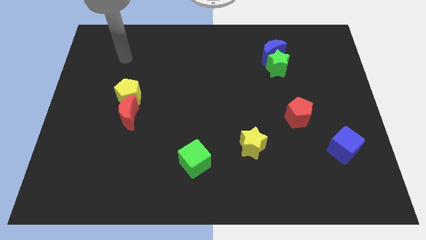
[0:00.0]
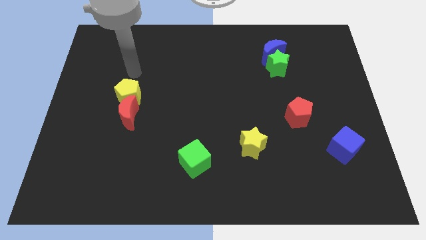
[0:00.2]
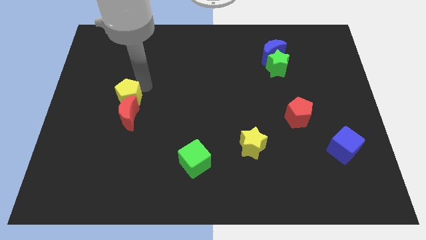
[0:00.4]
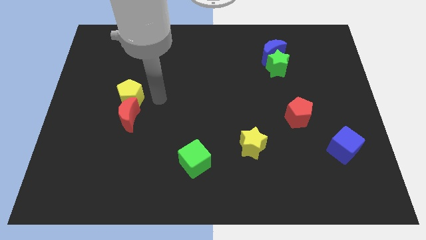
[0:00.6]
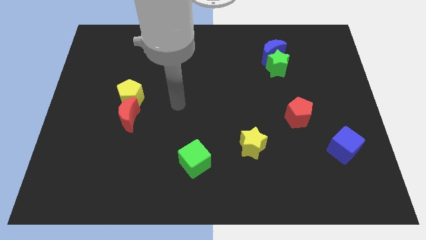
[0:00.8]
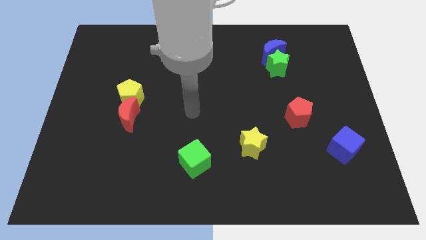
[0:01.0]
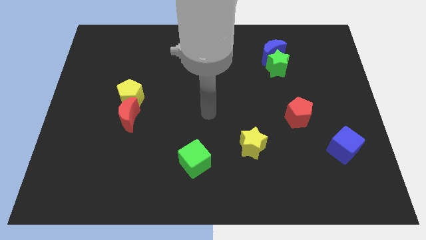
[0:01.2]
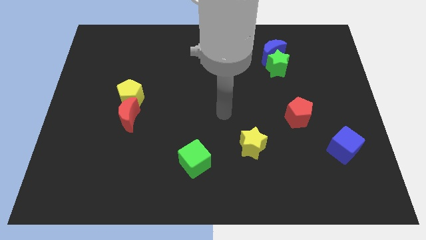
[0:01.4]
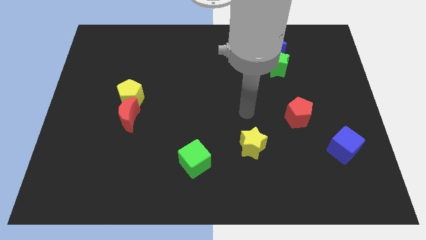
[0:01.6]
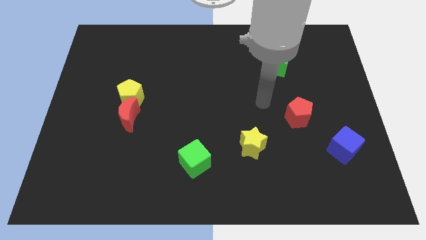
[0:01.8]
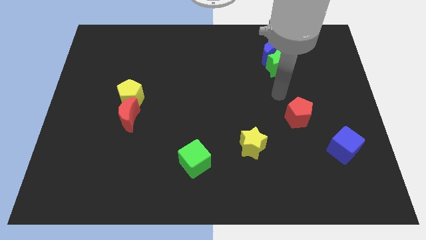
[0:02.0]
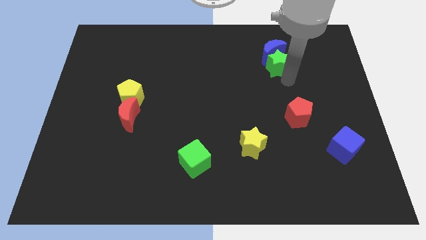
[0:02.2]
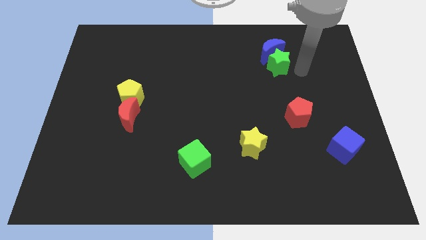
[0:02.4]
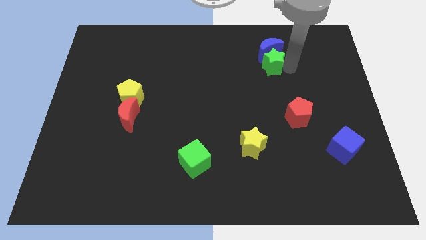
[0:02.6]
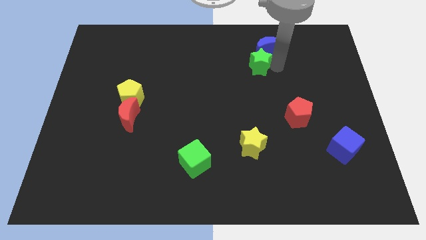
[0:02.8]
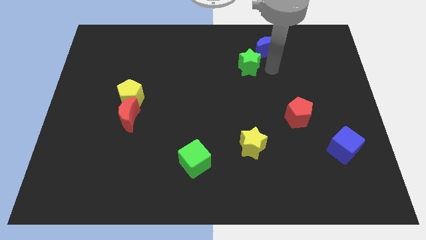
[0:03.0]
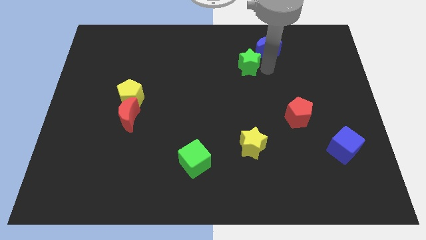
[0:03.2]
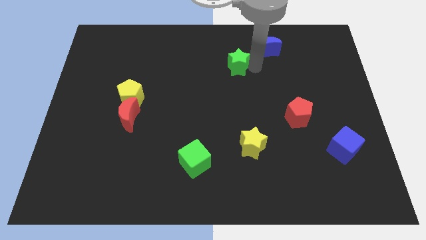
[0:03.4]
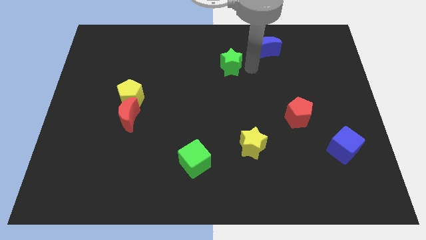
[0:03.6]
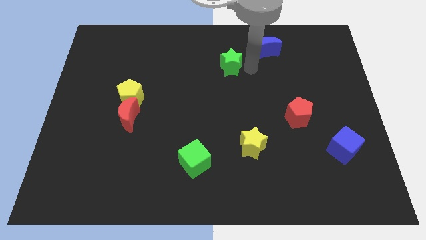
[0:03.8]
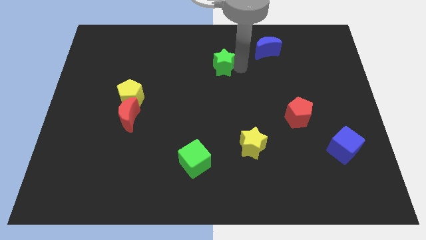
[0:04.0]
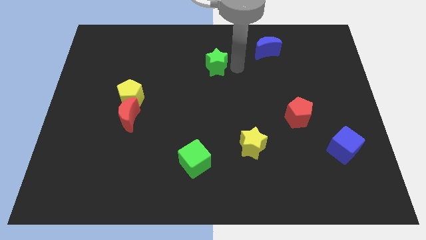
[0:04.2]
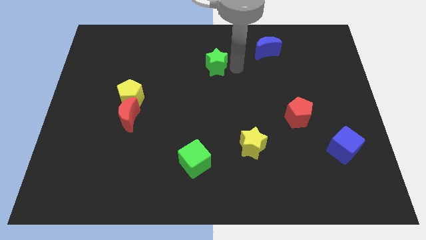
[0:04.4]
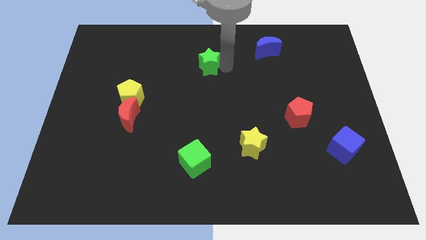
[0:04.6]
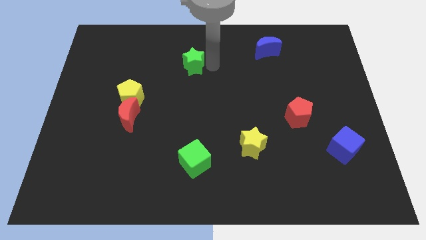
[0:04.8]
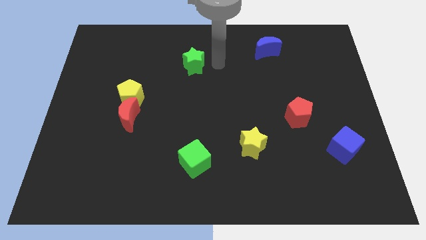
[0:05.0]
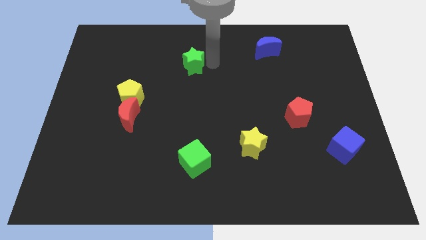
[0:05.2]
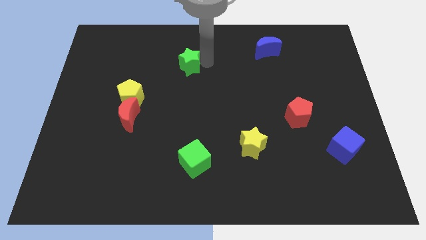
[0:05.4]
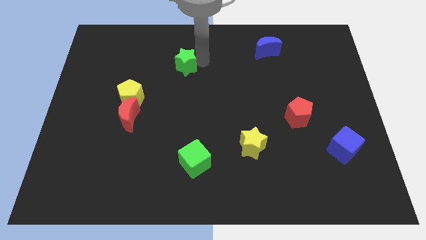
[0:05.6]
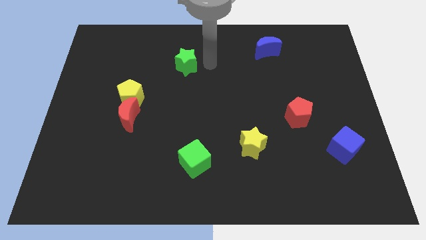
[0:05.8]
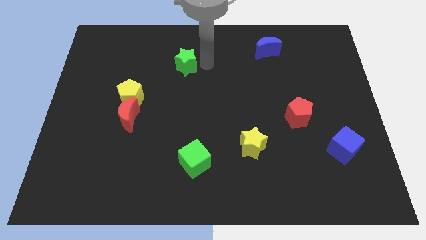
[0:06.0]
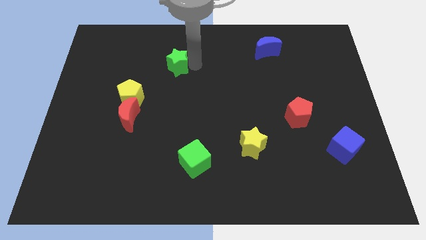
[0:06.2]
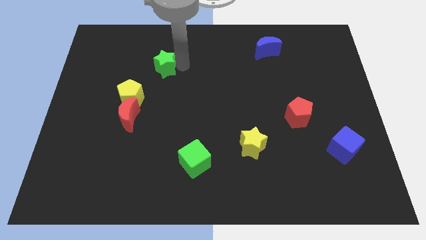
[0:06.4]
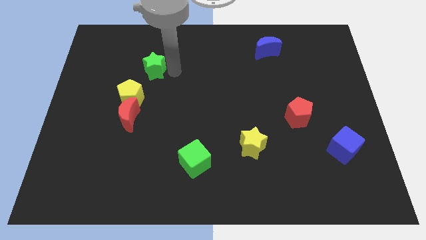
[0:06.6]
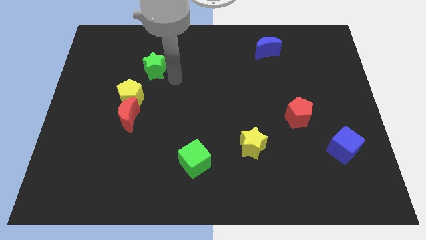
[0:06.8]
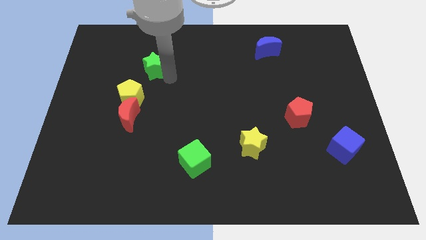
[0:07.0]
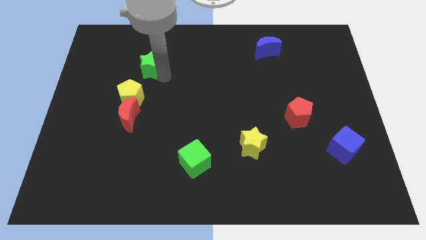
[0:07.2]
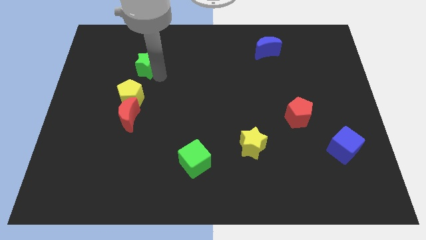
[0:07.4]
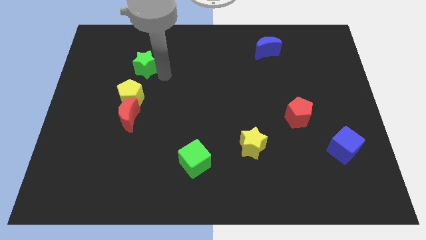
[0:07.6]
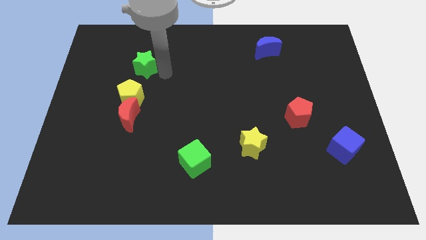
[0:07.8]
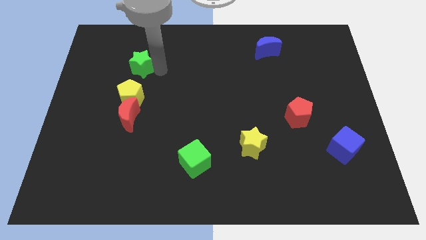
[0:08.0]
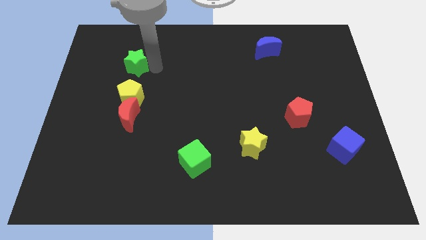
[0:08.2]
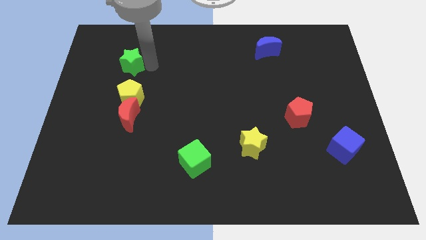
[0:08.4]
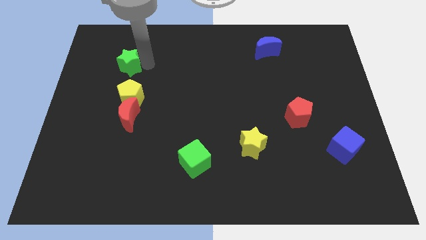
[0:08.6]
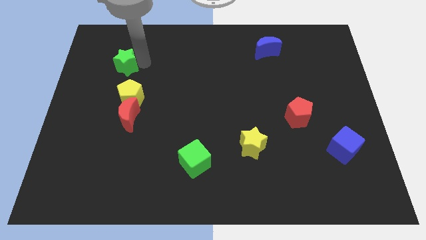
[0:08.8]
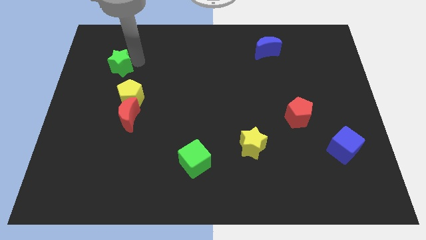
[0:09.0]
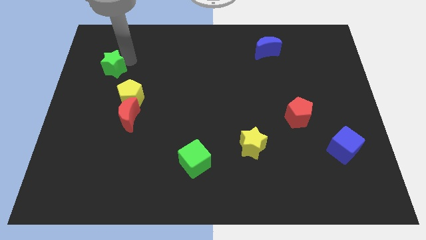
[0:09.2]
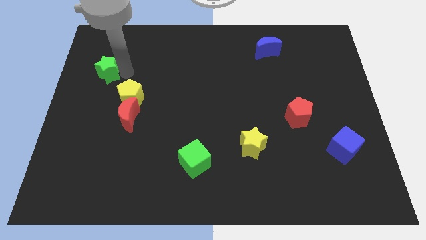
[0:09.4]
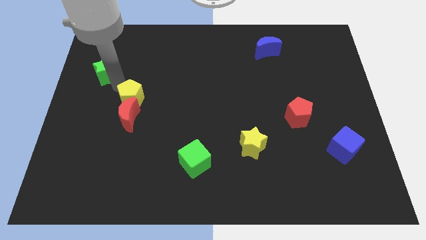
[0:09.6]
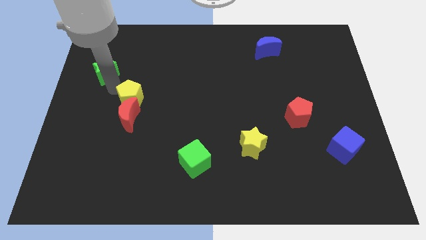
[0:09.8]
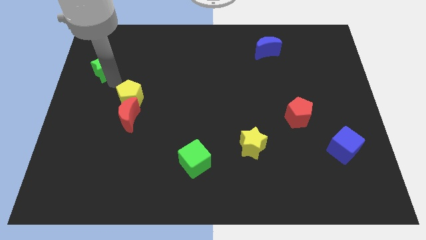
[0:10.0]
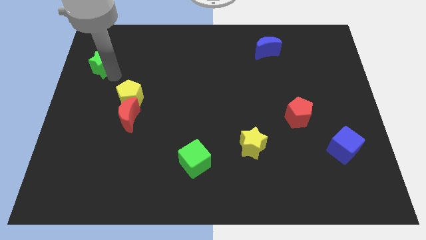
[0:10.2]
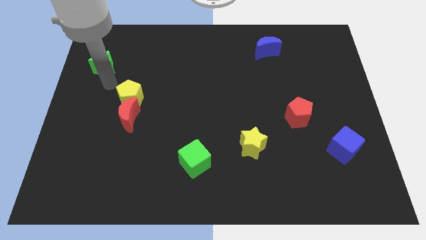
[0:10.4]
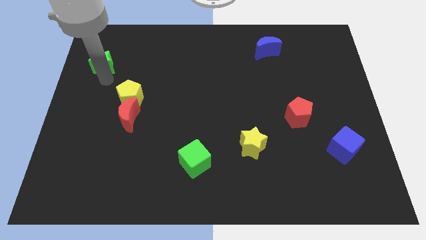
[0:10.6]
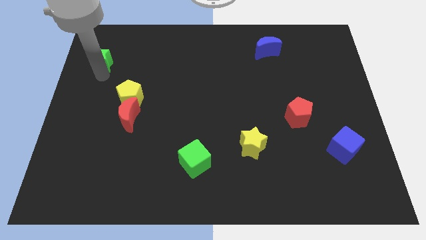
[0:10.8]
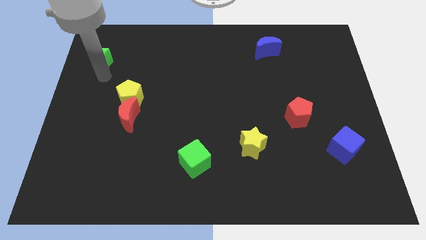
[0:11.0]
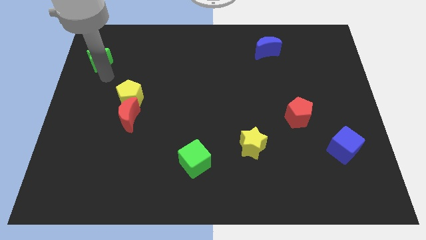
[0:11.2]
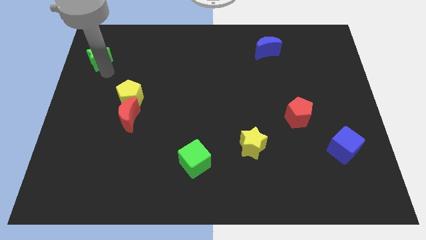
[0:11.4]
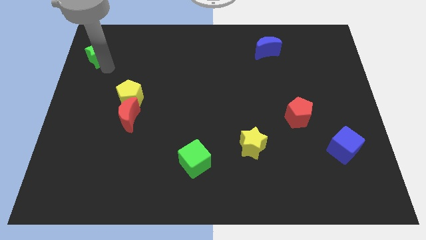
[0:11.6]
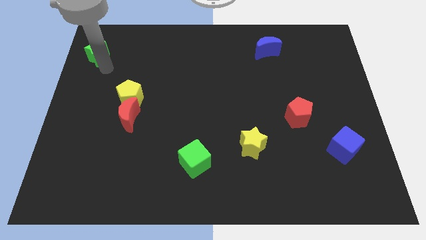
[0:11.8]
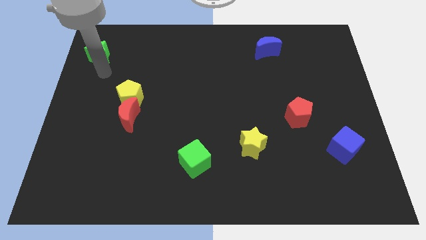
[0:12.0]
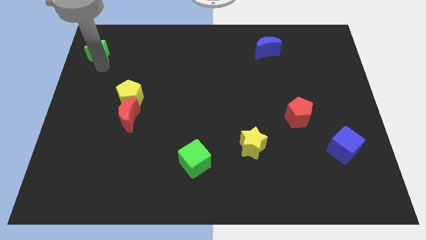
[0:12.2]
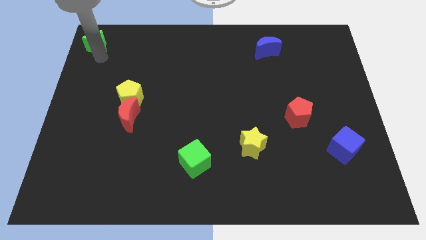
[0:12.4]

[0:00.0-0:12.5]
push the green star to the upper left corner

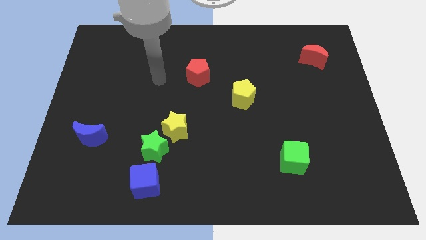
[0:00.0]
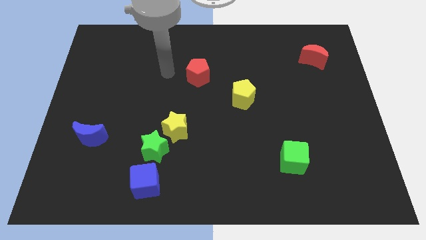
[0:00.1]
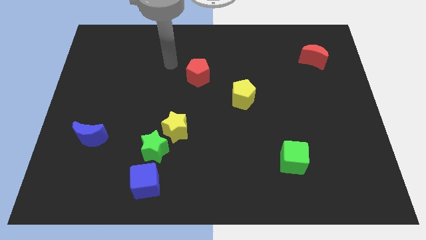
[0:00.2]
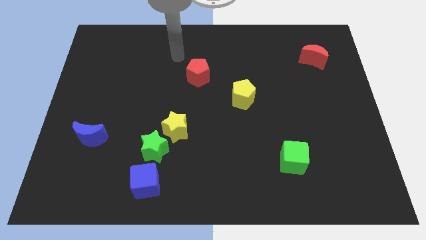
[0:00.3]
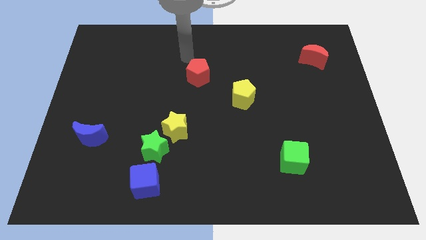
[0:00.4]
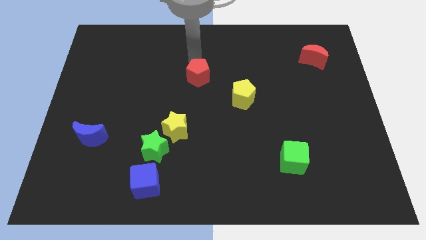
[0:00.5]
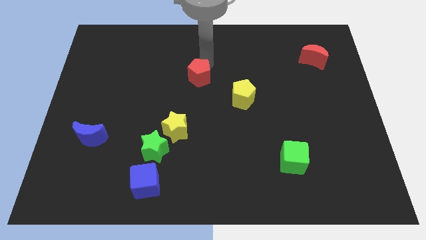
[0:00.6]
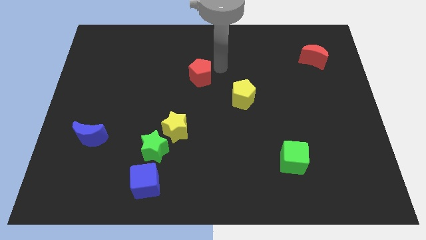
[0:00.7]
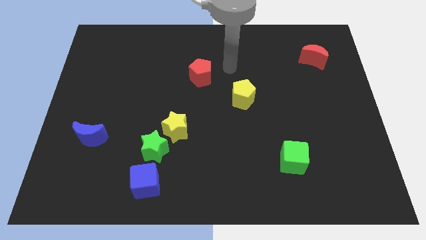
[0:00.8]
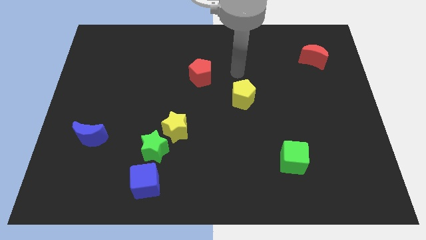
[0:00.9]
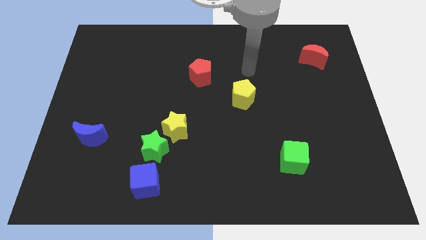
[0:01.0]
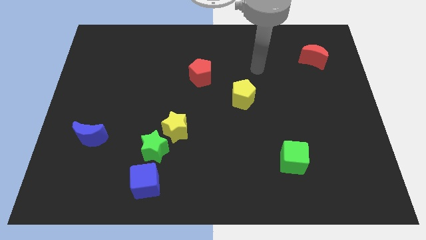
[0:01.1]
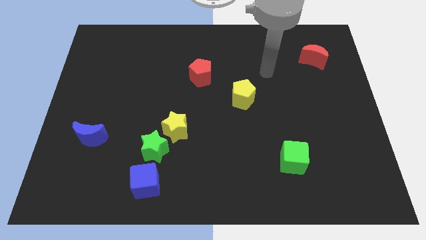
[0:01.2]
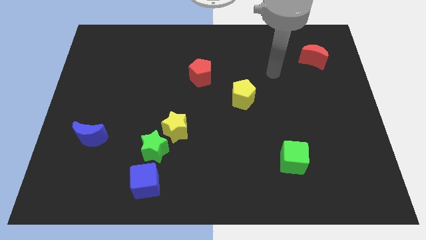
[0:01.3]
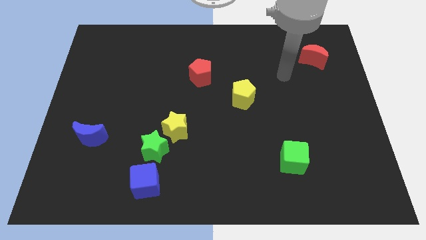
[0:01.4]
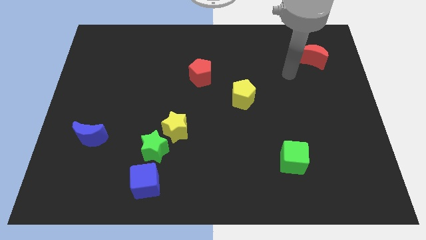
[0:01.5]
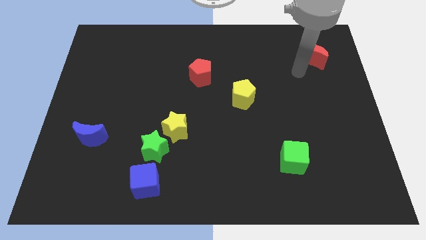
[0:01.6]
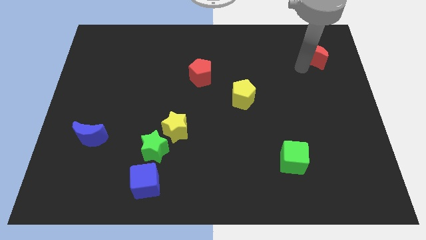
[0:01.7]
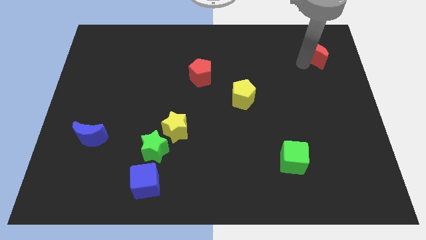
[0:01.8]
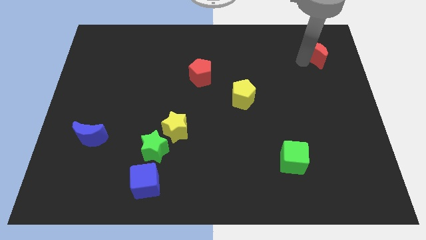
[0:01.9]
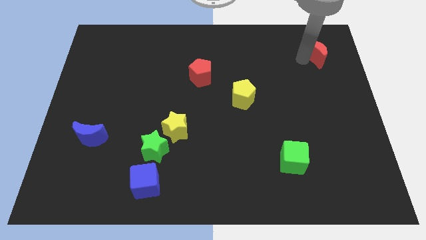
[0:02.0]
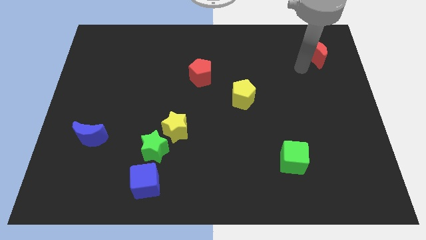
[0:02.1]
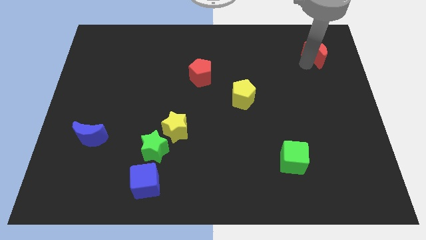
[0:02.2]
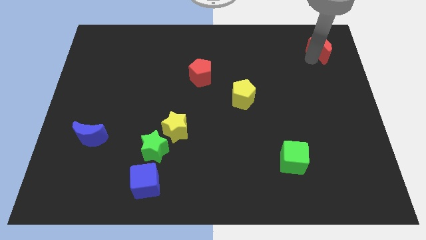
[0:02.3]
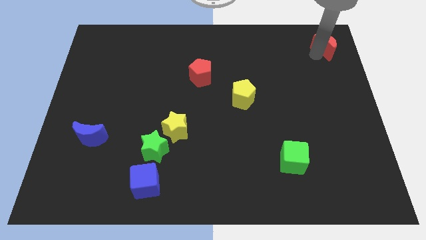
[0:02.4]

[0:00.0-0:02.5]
move the red moon to the upper right corner
